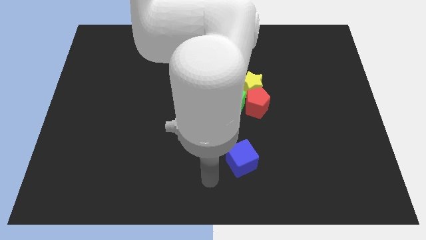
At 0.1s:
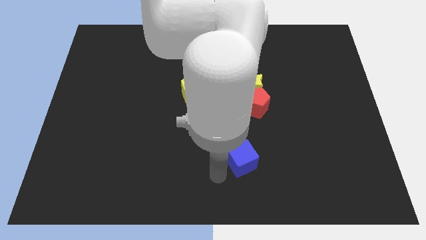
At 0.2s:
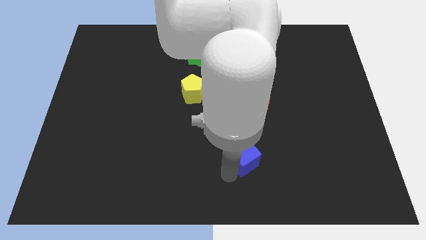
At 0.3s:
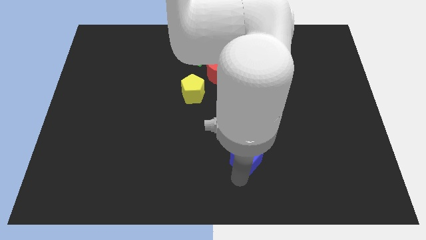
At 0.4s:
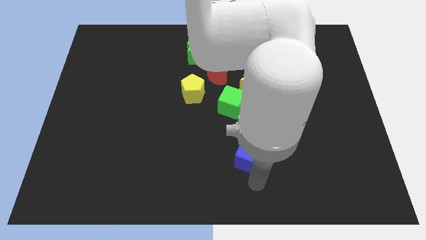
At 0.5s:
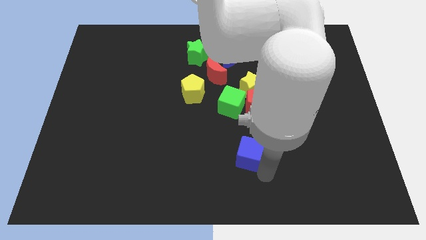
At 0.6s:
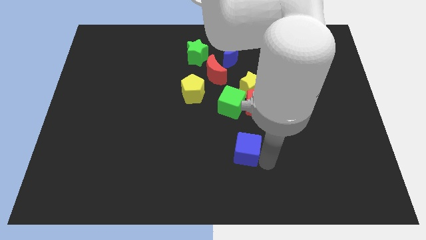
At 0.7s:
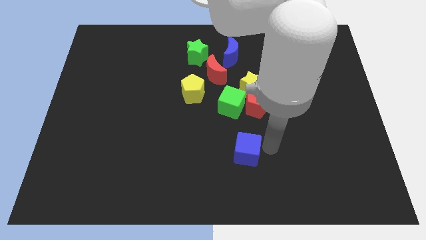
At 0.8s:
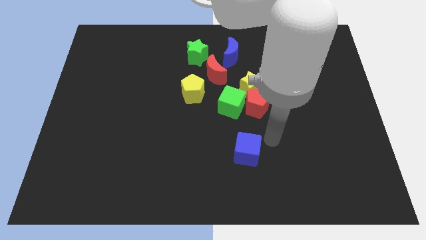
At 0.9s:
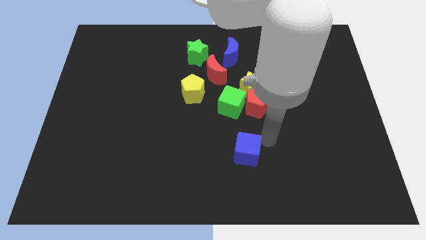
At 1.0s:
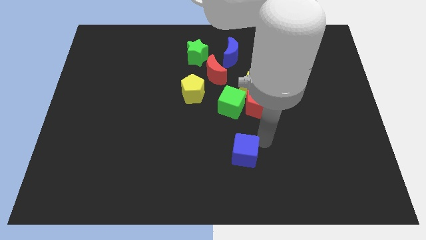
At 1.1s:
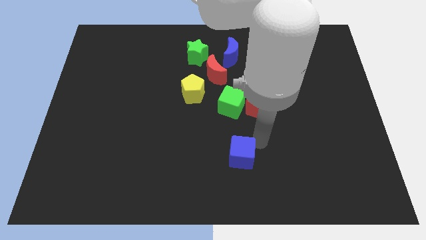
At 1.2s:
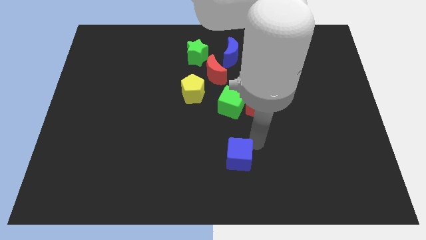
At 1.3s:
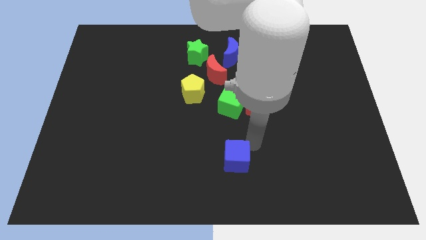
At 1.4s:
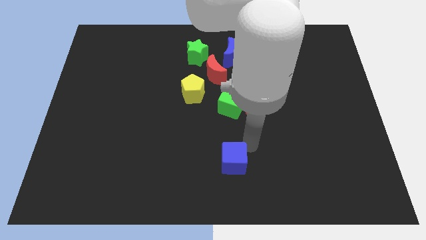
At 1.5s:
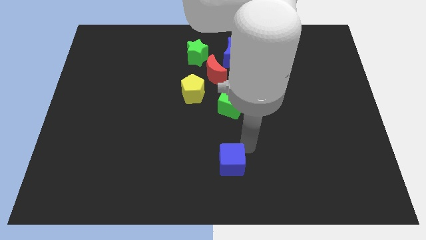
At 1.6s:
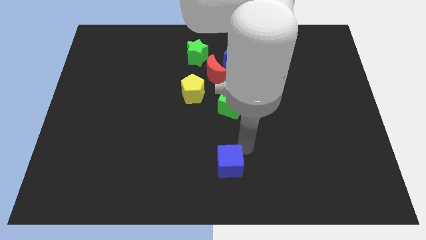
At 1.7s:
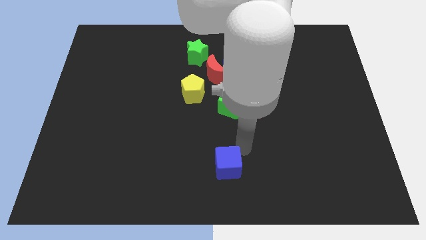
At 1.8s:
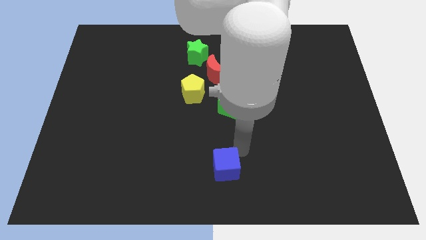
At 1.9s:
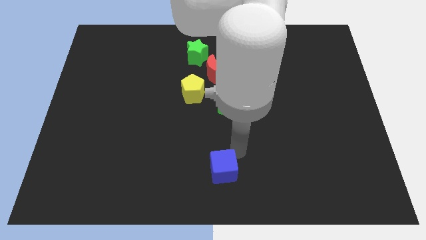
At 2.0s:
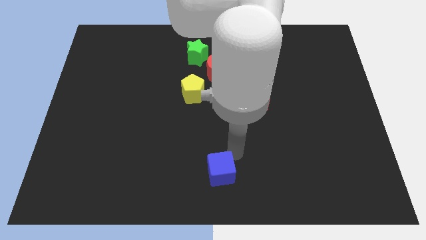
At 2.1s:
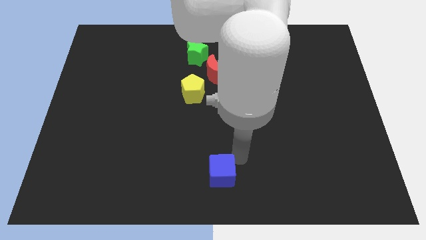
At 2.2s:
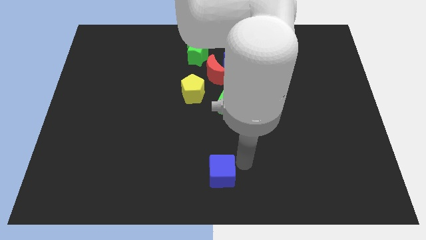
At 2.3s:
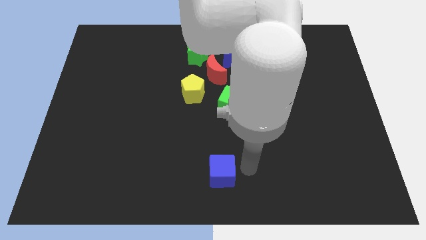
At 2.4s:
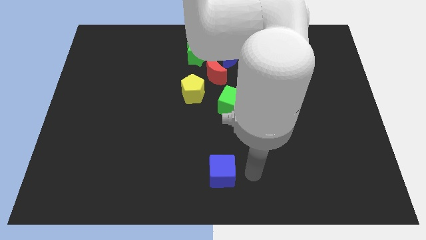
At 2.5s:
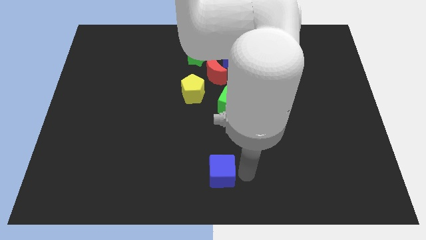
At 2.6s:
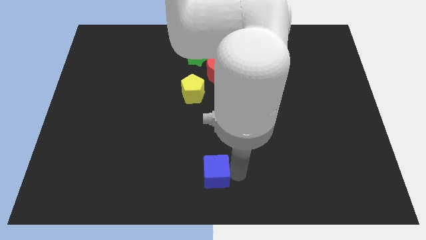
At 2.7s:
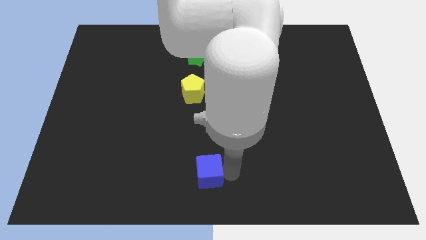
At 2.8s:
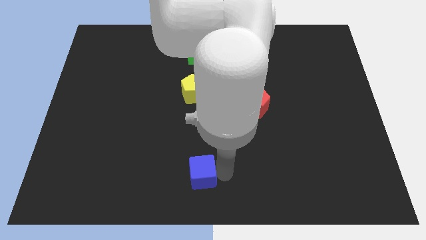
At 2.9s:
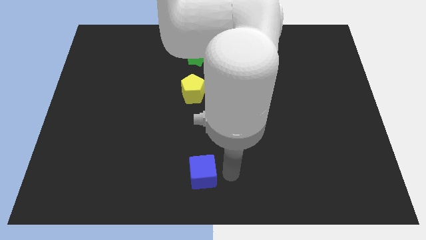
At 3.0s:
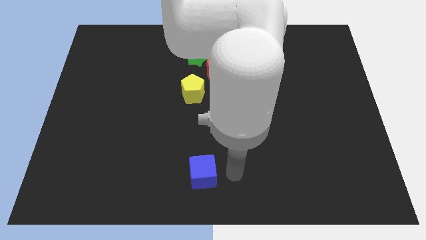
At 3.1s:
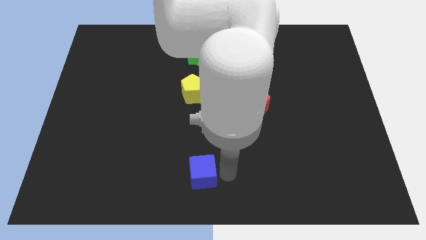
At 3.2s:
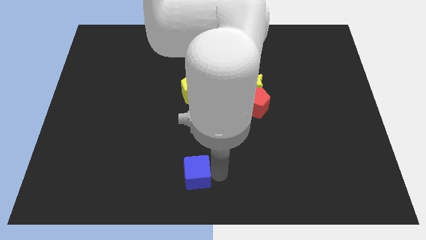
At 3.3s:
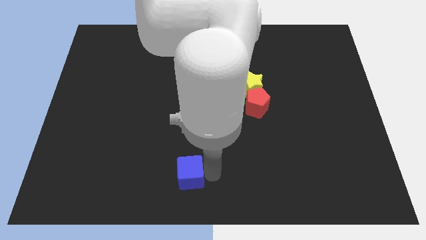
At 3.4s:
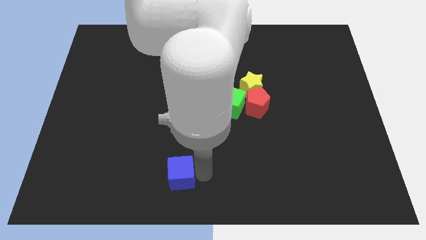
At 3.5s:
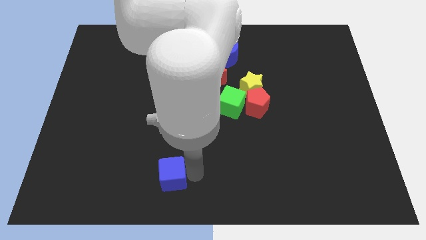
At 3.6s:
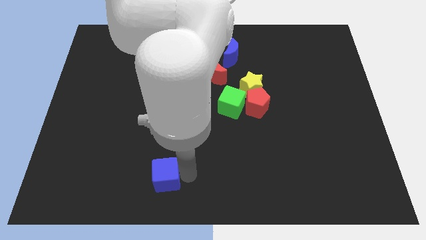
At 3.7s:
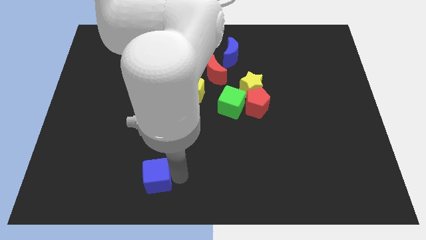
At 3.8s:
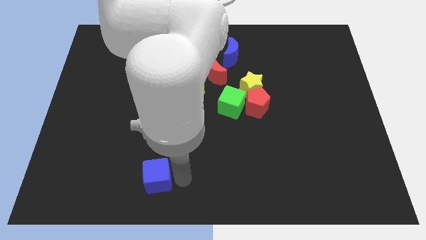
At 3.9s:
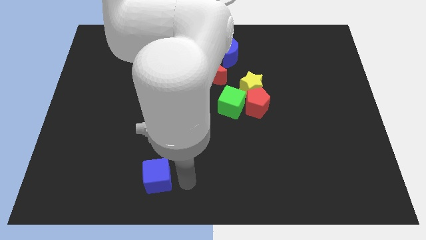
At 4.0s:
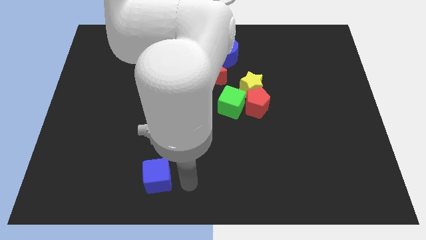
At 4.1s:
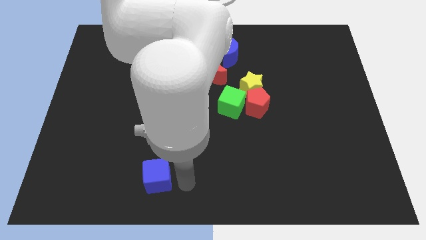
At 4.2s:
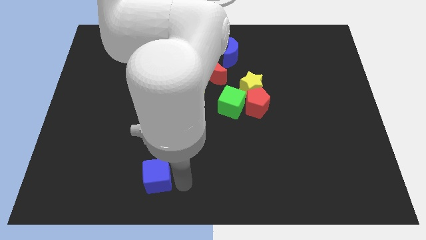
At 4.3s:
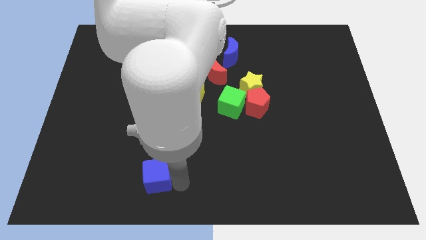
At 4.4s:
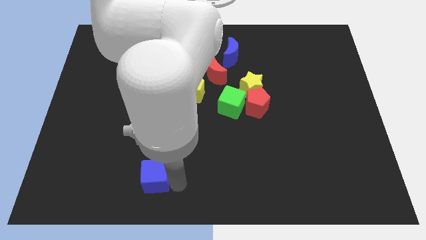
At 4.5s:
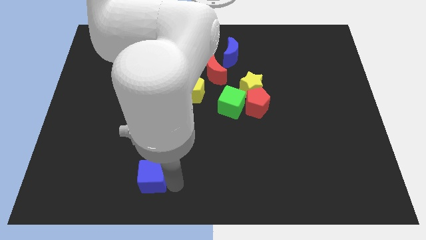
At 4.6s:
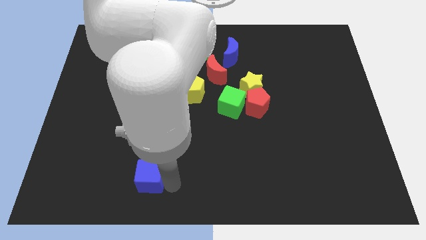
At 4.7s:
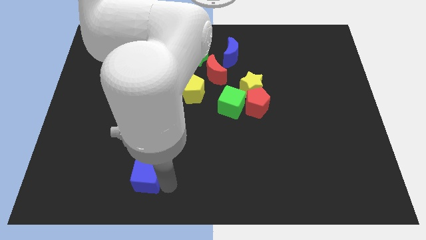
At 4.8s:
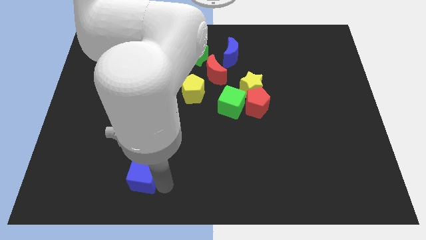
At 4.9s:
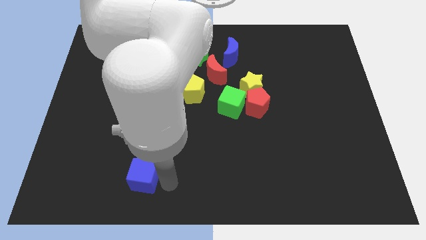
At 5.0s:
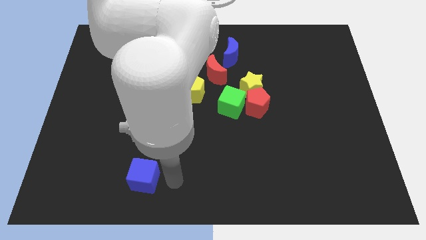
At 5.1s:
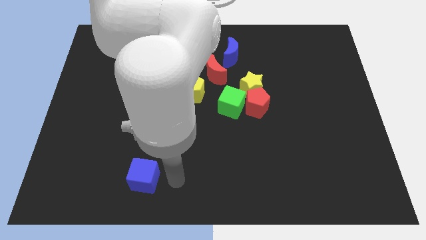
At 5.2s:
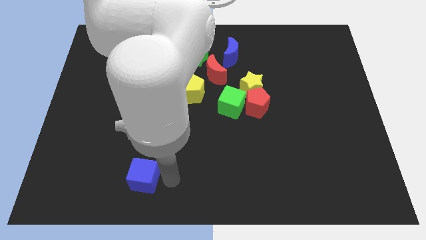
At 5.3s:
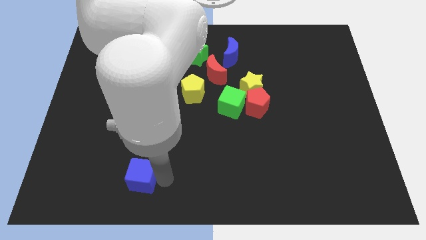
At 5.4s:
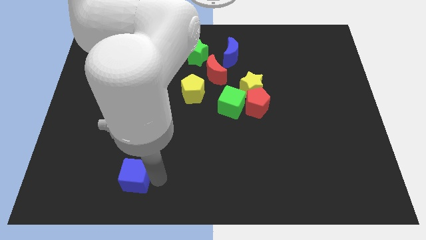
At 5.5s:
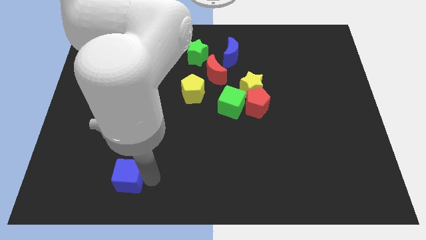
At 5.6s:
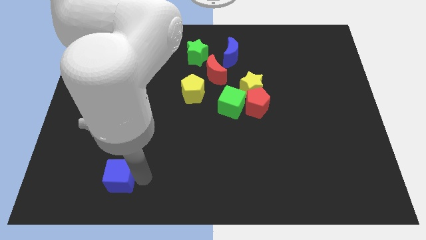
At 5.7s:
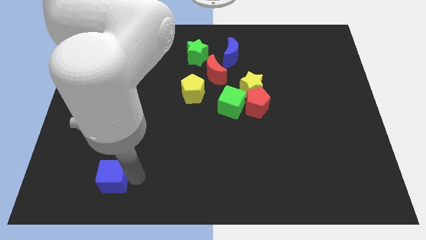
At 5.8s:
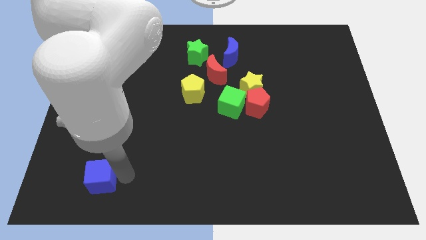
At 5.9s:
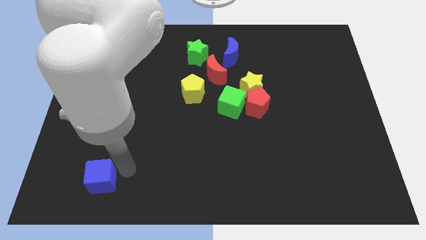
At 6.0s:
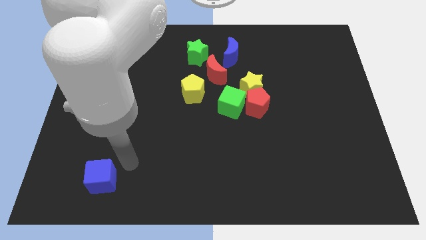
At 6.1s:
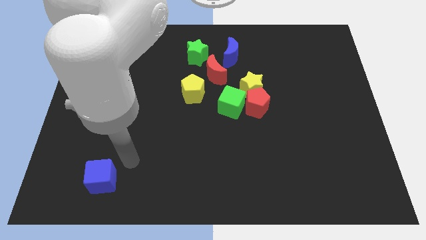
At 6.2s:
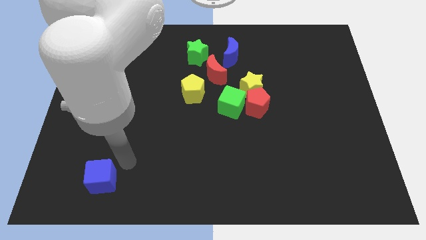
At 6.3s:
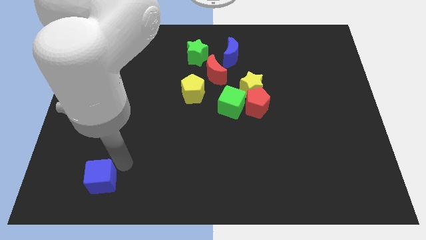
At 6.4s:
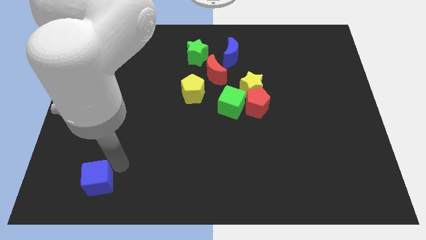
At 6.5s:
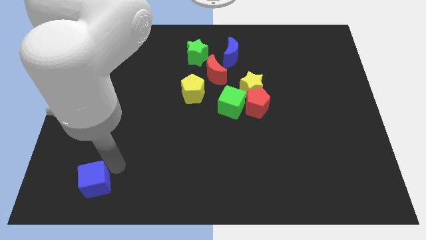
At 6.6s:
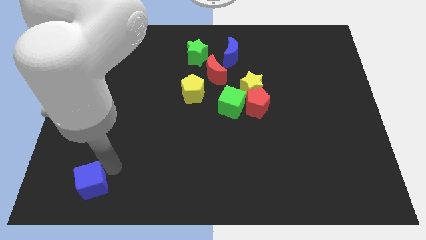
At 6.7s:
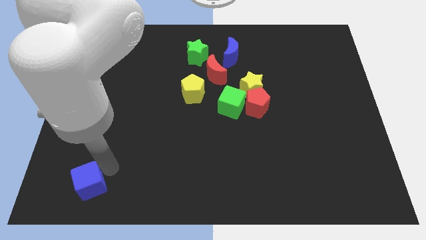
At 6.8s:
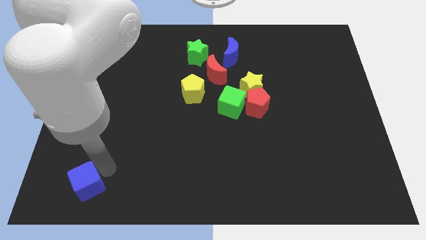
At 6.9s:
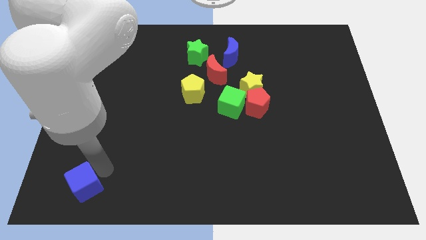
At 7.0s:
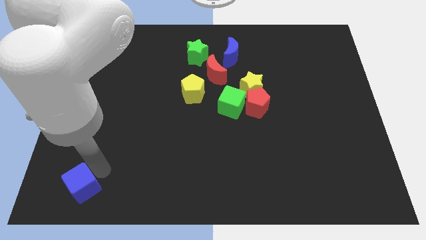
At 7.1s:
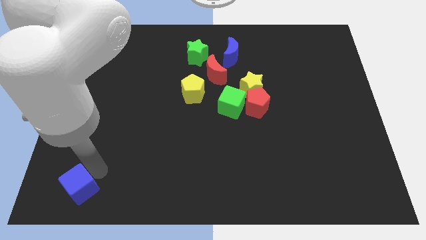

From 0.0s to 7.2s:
slide the blue cube to the bottom left of the board
